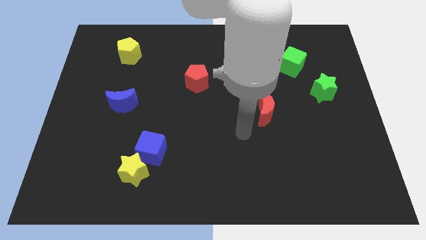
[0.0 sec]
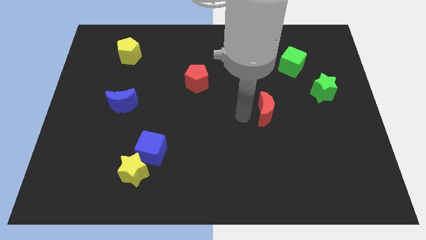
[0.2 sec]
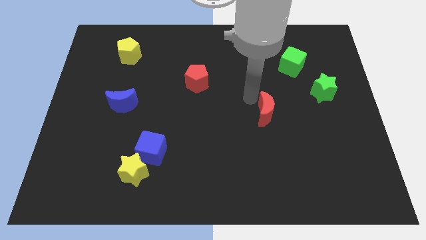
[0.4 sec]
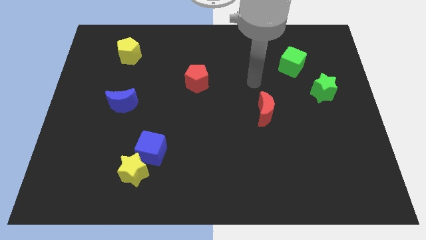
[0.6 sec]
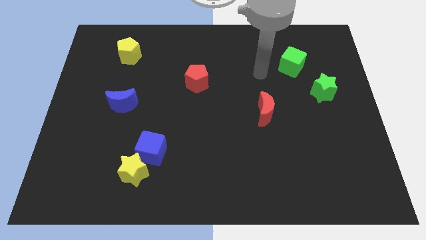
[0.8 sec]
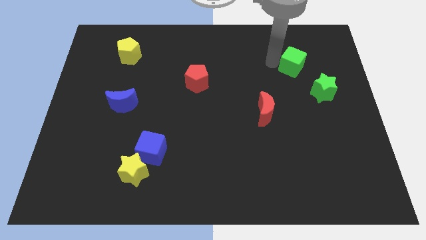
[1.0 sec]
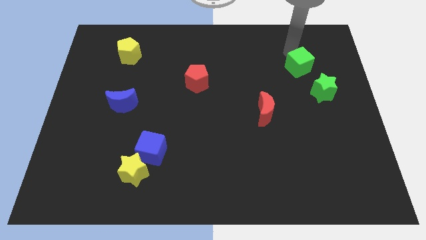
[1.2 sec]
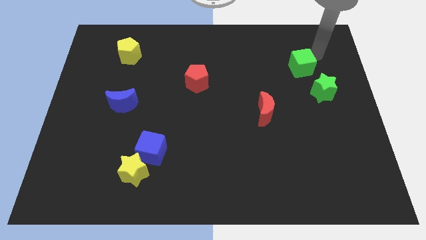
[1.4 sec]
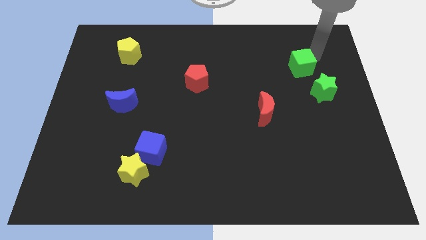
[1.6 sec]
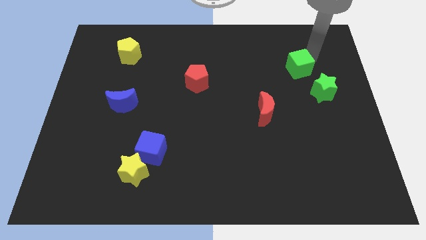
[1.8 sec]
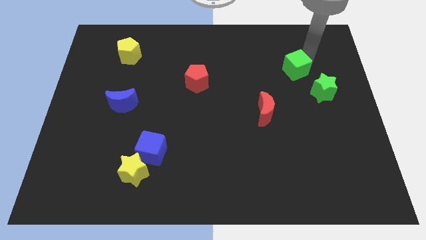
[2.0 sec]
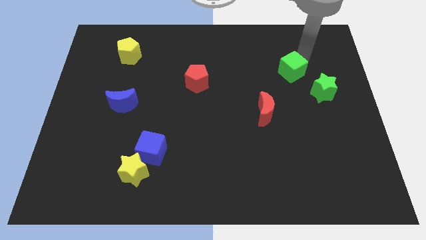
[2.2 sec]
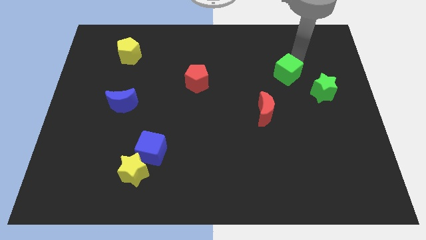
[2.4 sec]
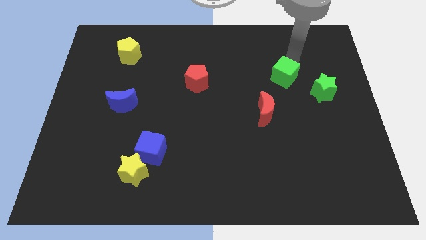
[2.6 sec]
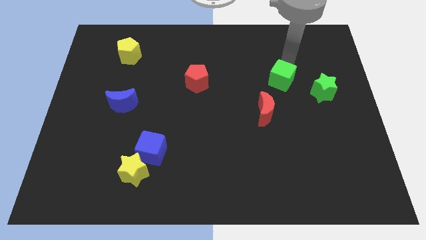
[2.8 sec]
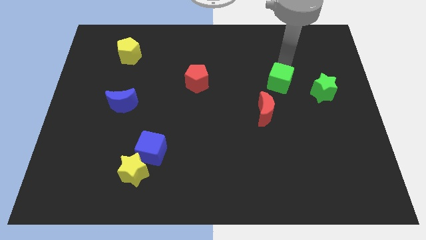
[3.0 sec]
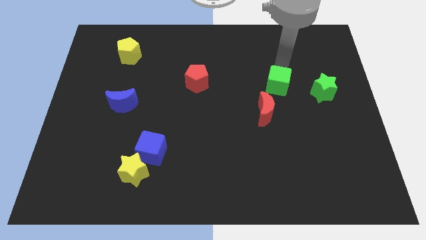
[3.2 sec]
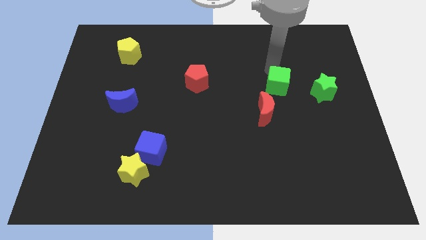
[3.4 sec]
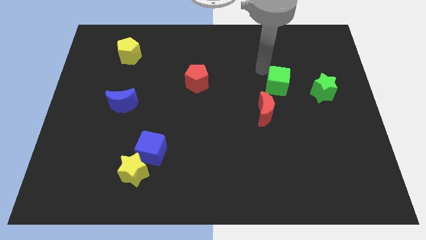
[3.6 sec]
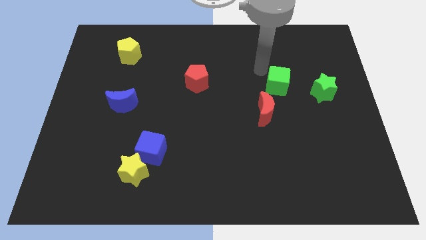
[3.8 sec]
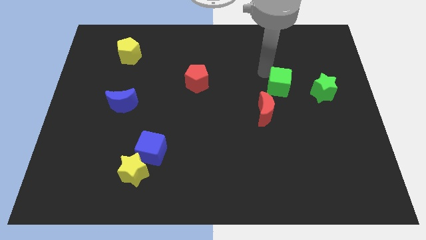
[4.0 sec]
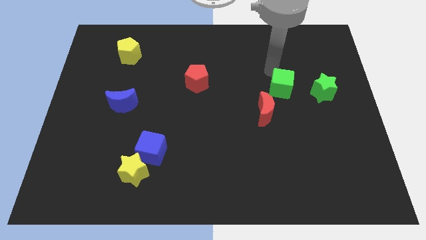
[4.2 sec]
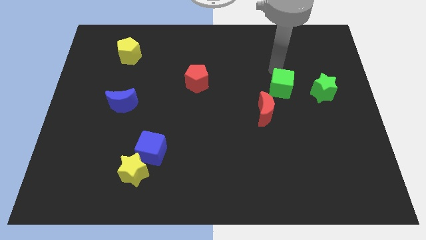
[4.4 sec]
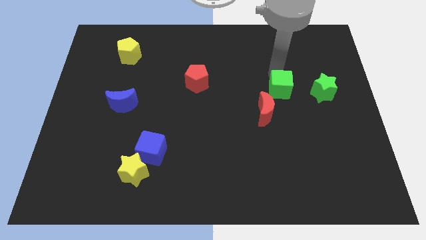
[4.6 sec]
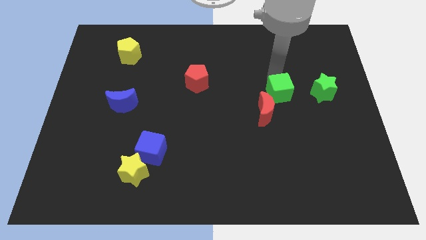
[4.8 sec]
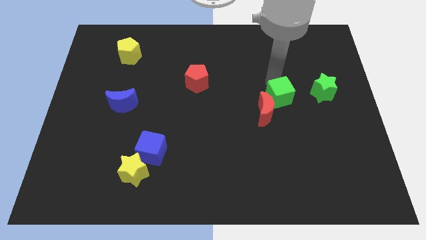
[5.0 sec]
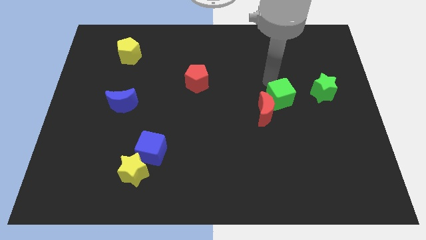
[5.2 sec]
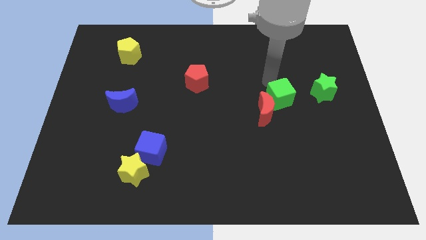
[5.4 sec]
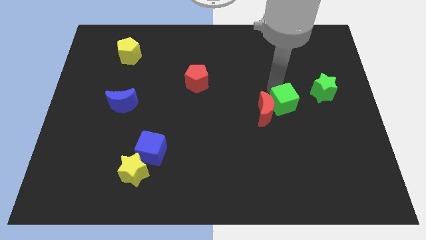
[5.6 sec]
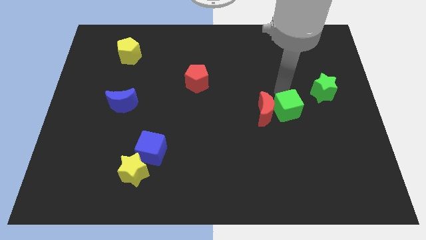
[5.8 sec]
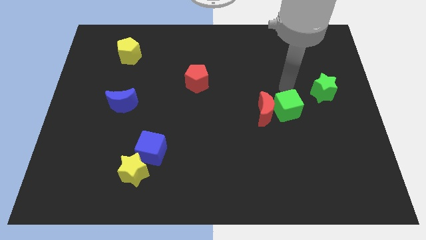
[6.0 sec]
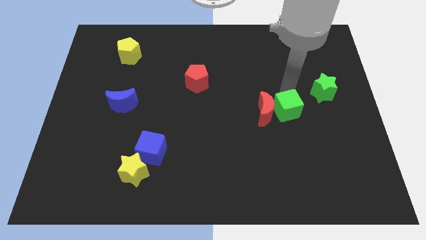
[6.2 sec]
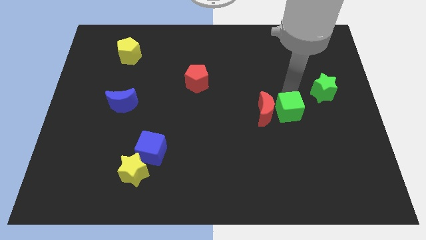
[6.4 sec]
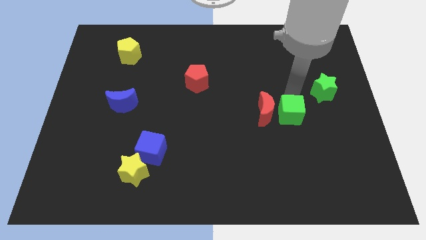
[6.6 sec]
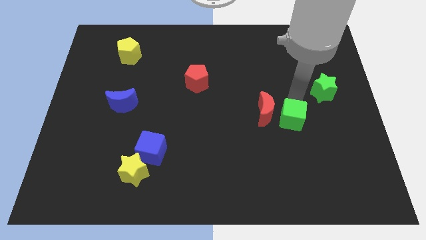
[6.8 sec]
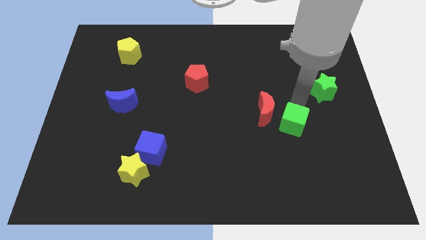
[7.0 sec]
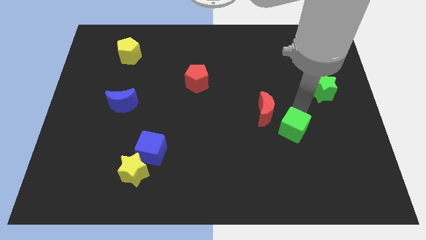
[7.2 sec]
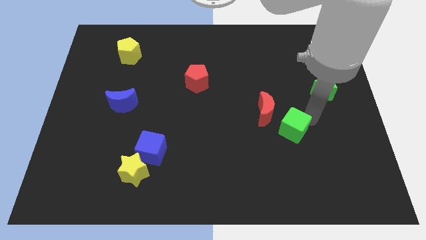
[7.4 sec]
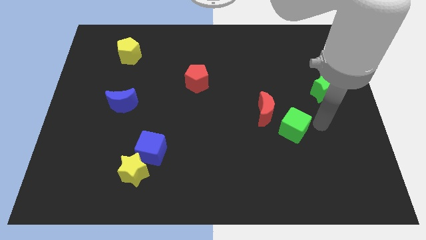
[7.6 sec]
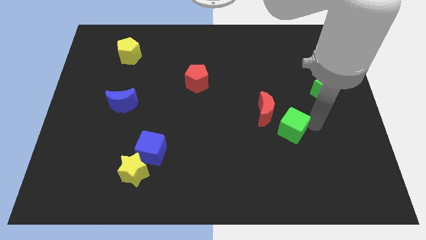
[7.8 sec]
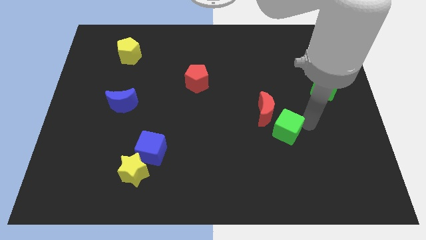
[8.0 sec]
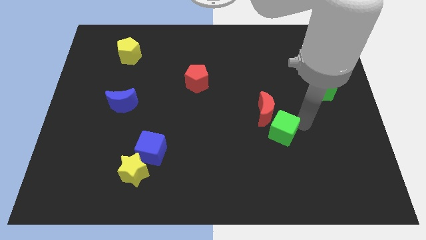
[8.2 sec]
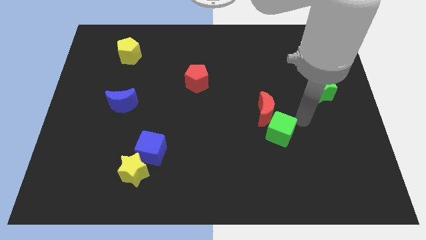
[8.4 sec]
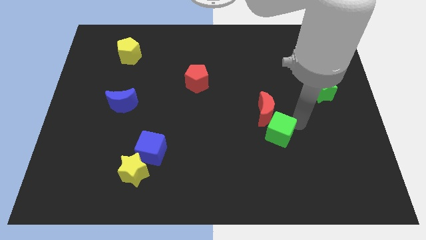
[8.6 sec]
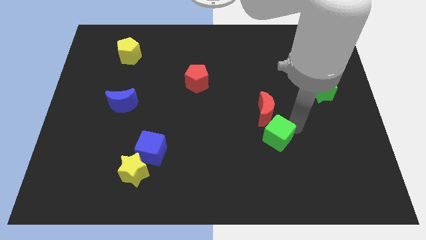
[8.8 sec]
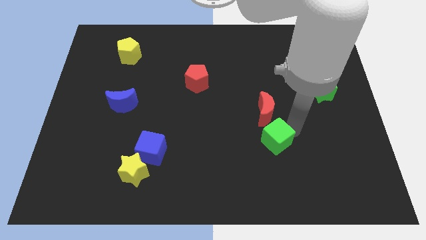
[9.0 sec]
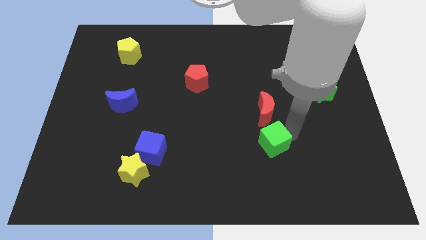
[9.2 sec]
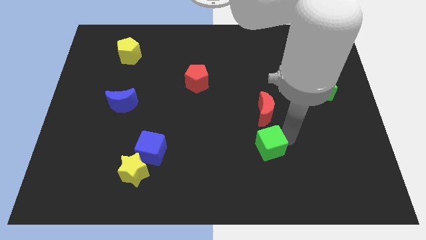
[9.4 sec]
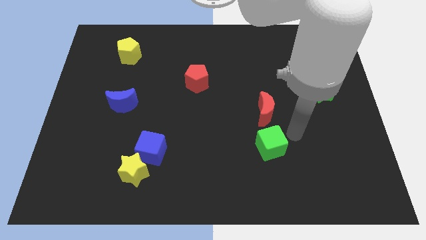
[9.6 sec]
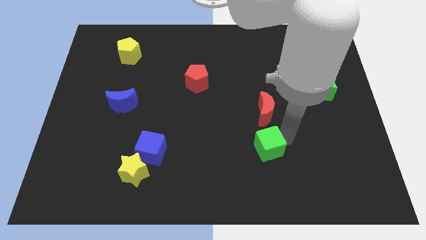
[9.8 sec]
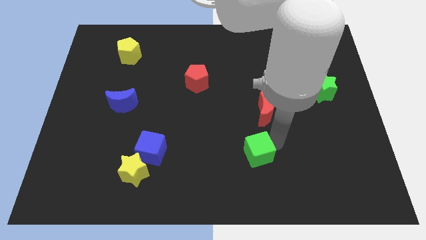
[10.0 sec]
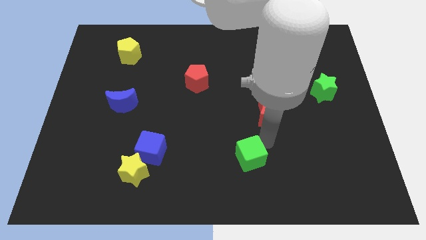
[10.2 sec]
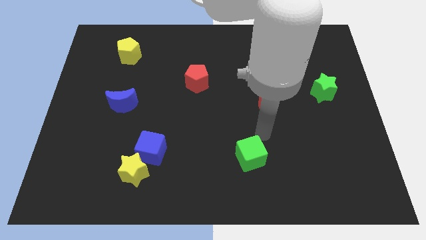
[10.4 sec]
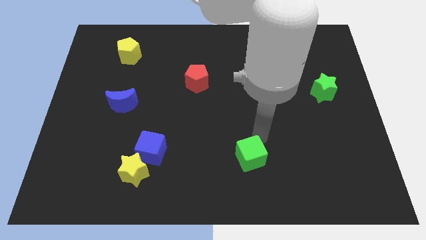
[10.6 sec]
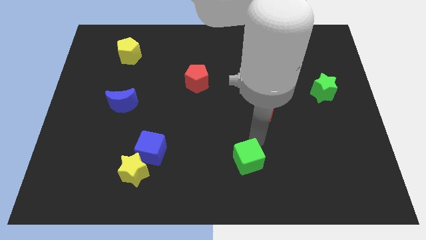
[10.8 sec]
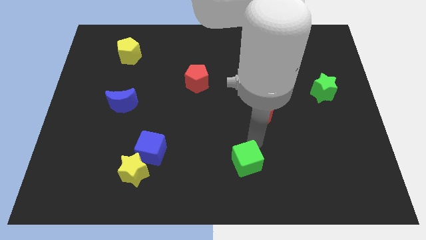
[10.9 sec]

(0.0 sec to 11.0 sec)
slide the green cube to the bottom side

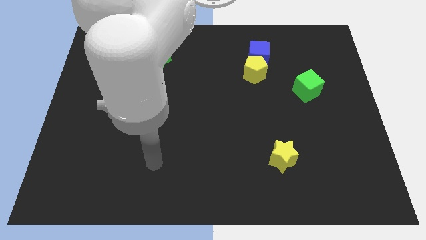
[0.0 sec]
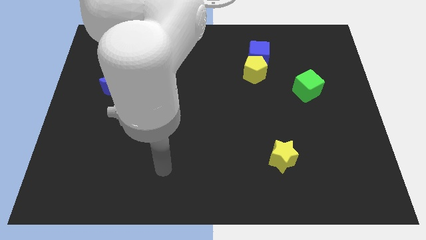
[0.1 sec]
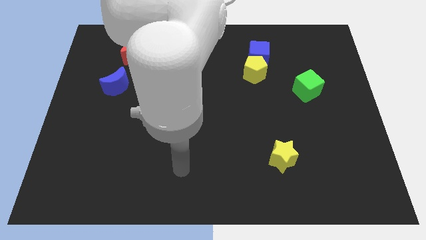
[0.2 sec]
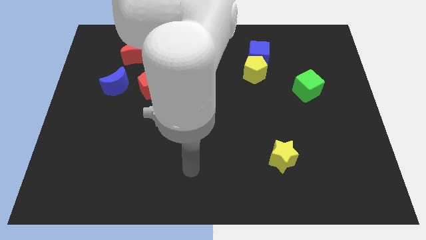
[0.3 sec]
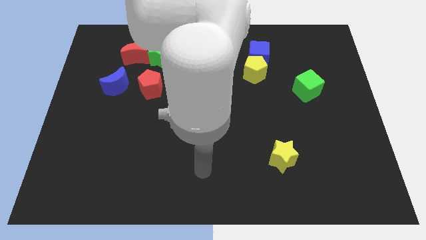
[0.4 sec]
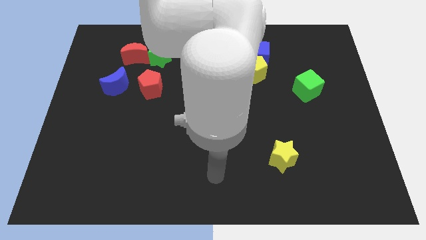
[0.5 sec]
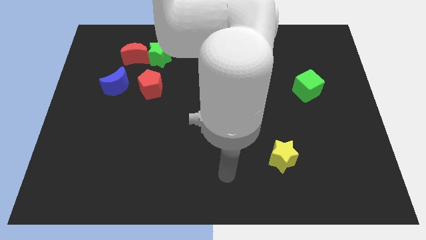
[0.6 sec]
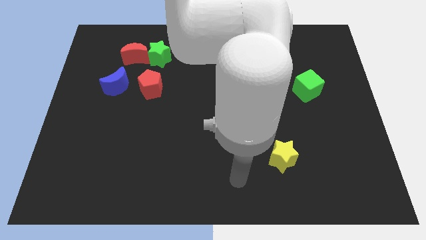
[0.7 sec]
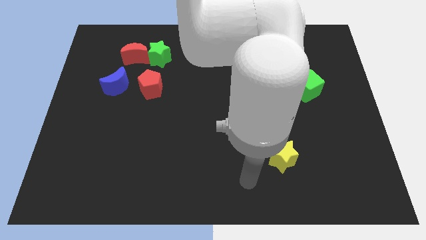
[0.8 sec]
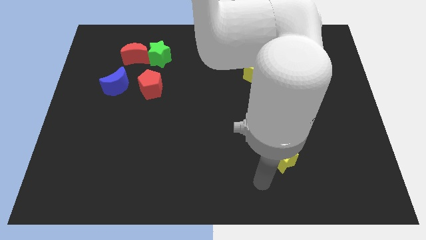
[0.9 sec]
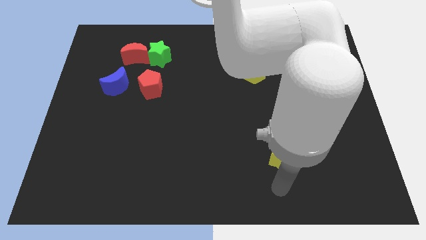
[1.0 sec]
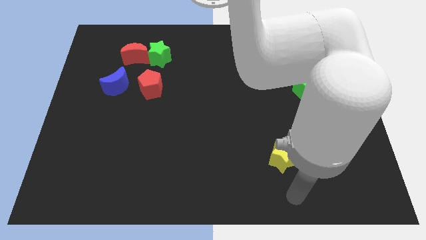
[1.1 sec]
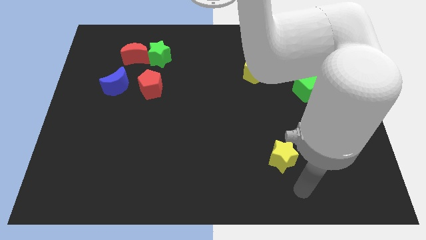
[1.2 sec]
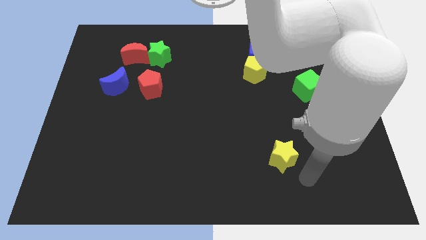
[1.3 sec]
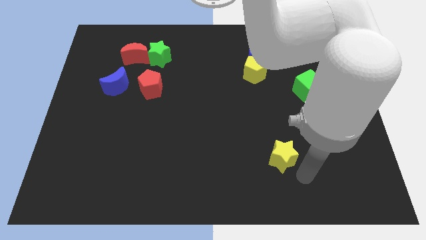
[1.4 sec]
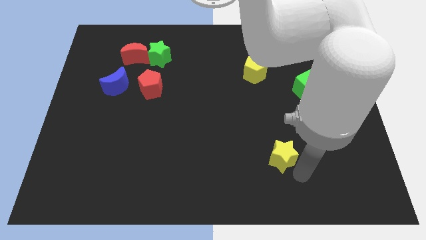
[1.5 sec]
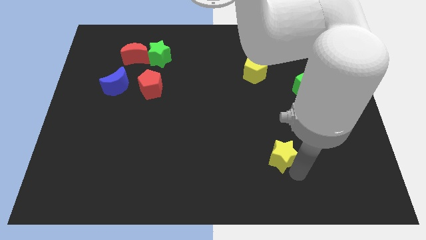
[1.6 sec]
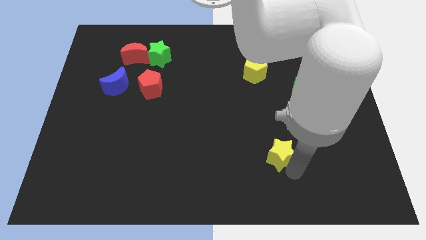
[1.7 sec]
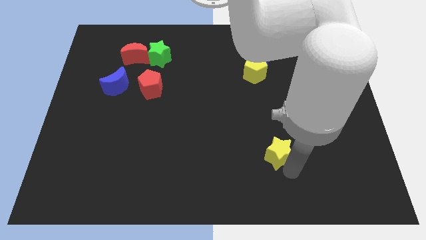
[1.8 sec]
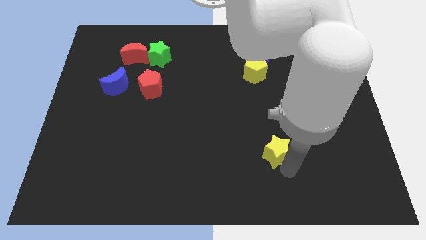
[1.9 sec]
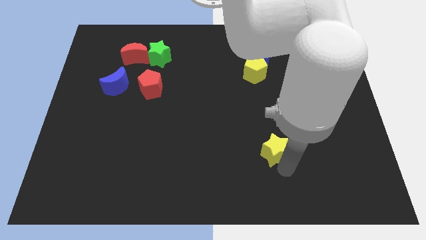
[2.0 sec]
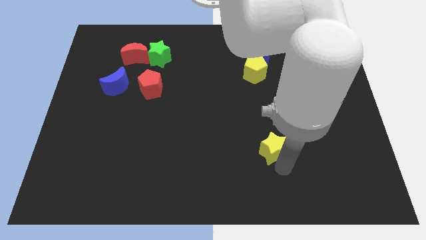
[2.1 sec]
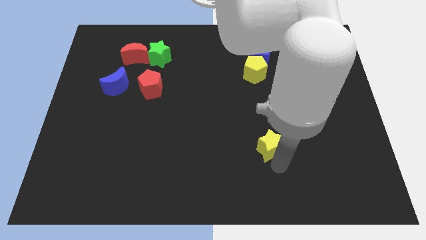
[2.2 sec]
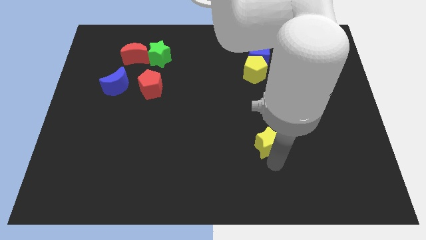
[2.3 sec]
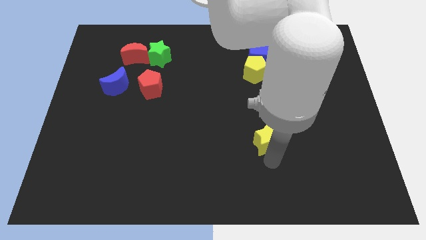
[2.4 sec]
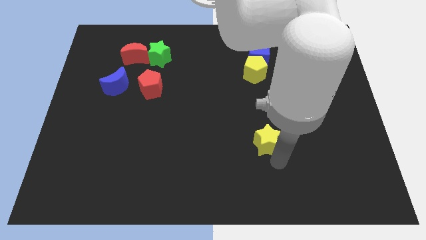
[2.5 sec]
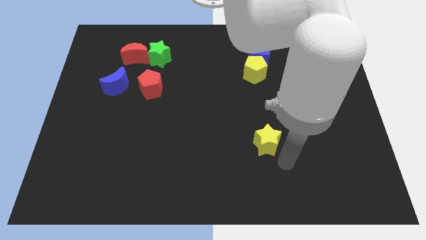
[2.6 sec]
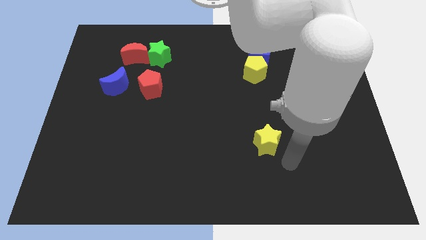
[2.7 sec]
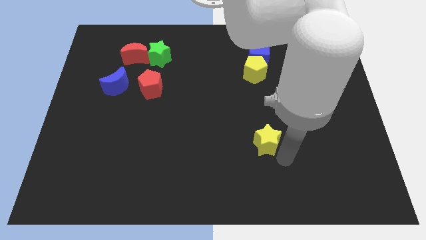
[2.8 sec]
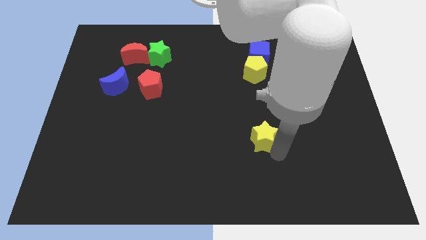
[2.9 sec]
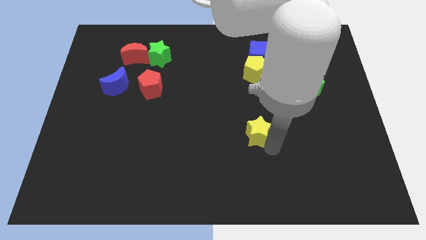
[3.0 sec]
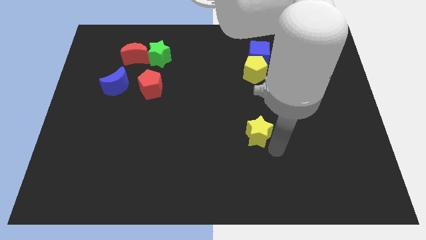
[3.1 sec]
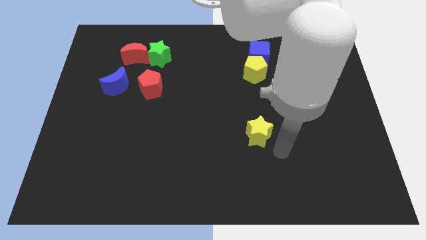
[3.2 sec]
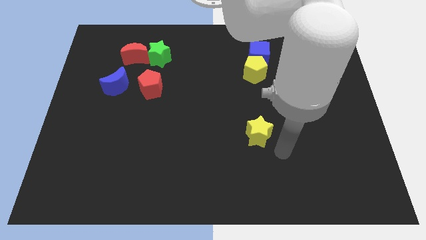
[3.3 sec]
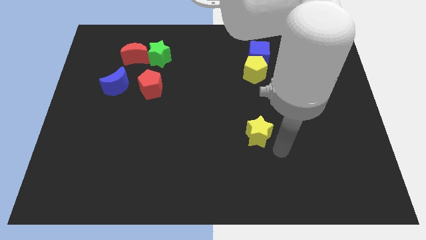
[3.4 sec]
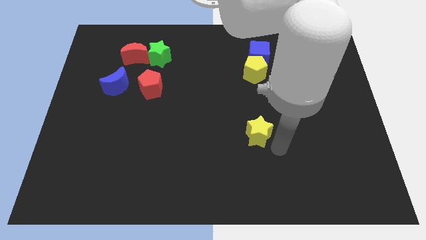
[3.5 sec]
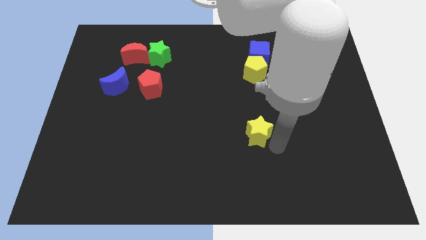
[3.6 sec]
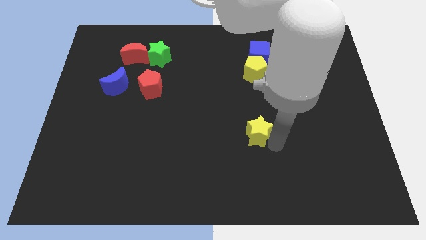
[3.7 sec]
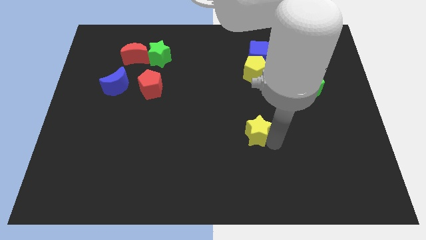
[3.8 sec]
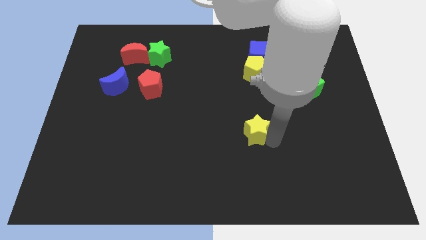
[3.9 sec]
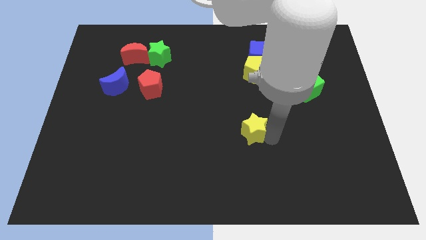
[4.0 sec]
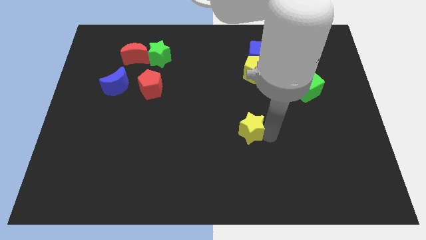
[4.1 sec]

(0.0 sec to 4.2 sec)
slide the yellow star to the middle of the board
